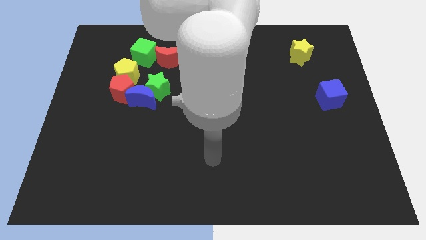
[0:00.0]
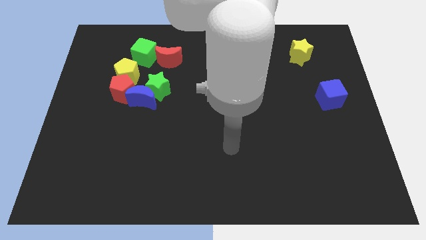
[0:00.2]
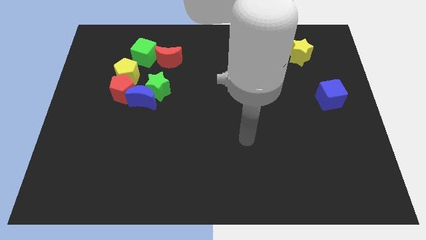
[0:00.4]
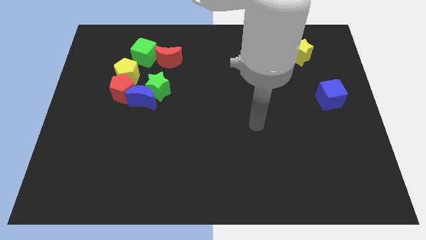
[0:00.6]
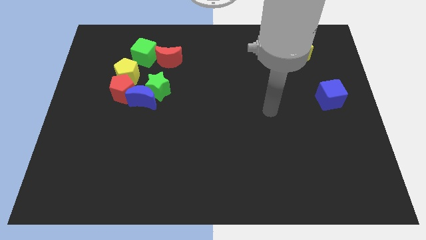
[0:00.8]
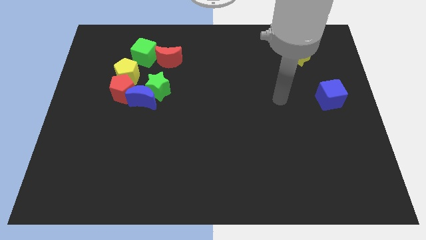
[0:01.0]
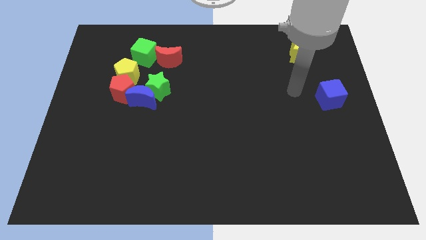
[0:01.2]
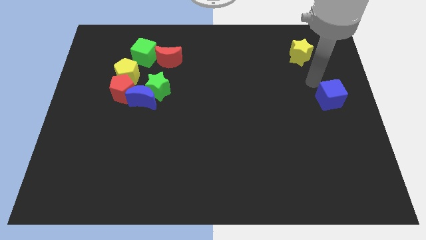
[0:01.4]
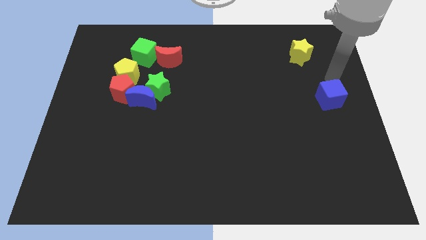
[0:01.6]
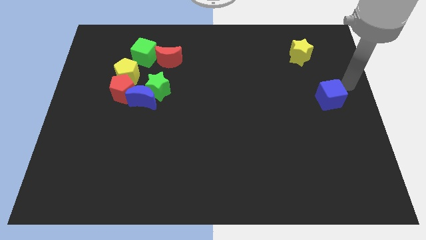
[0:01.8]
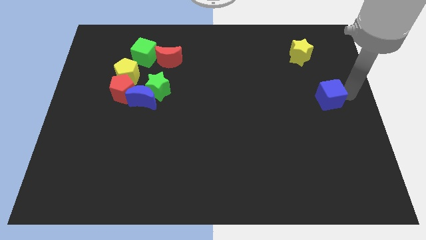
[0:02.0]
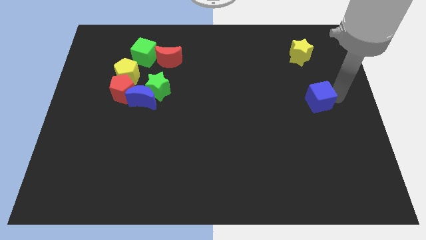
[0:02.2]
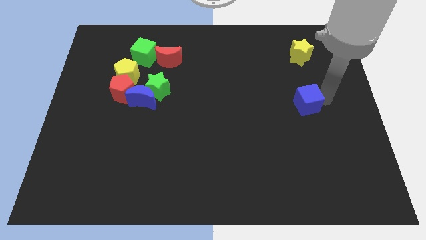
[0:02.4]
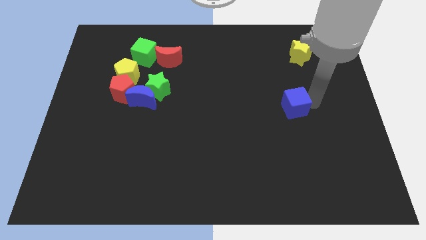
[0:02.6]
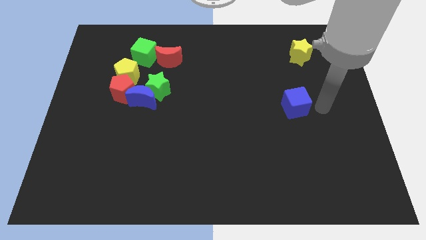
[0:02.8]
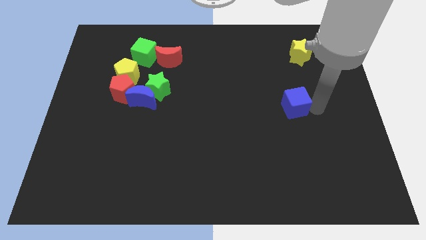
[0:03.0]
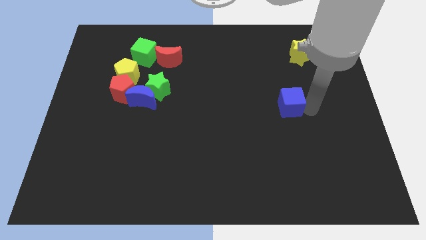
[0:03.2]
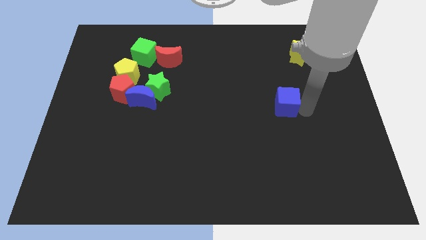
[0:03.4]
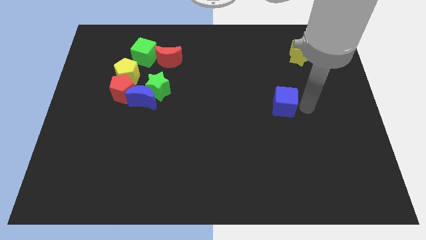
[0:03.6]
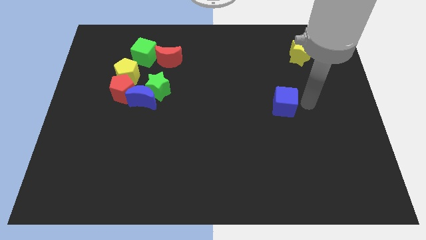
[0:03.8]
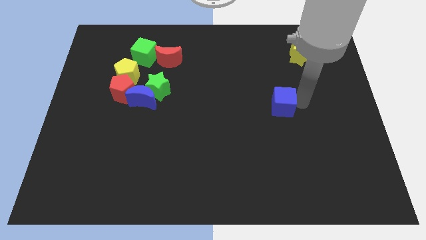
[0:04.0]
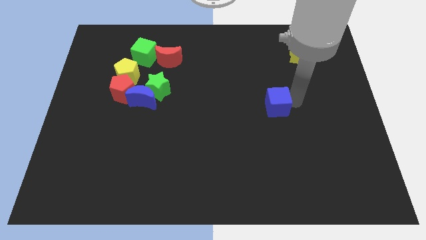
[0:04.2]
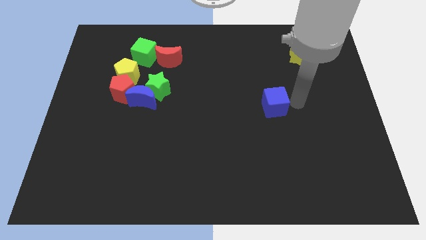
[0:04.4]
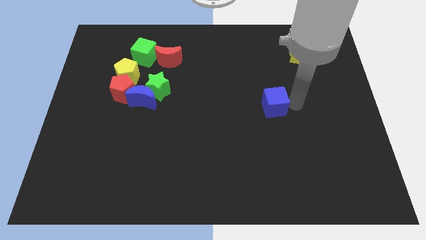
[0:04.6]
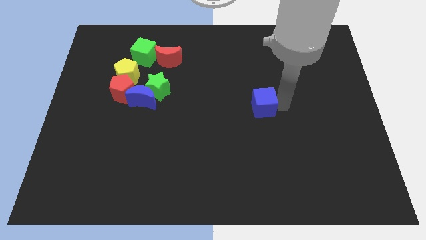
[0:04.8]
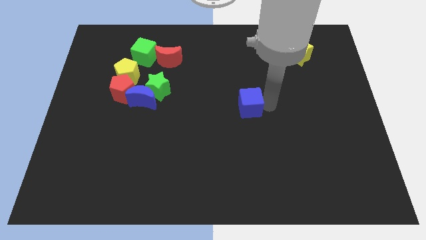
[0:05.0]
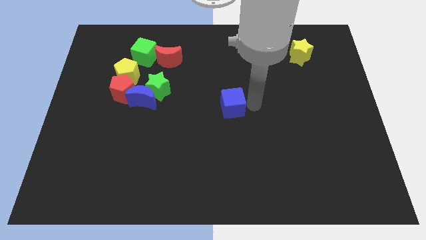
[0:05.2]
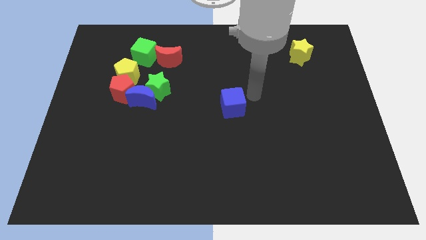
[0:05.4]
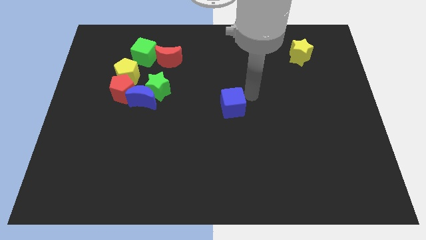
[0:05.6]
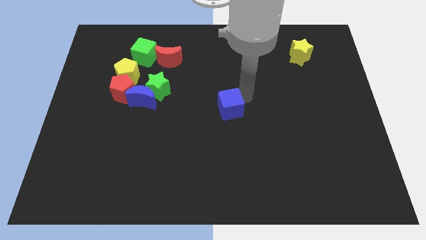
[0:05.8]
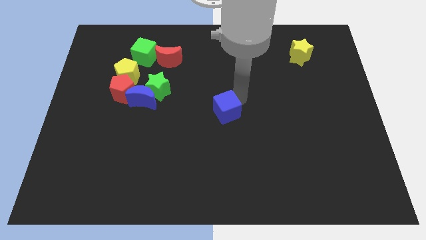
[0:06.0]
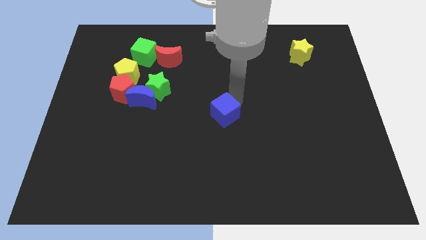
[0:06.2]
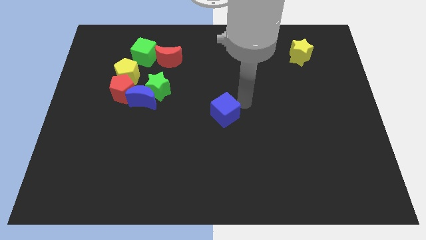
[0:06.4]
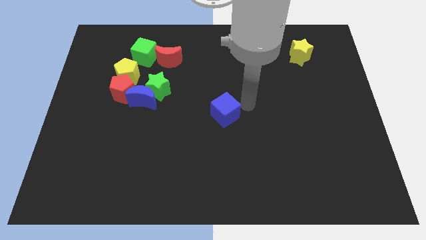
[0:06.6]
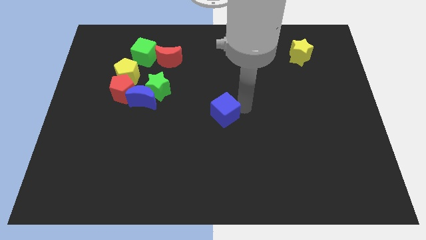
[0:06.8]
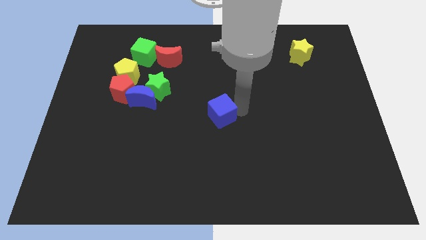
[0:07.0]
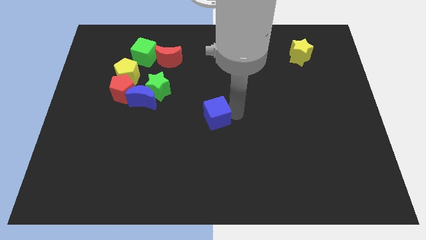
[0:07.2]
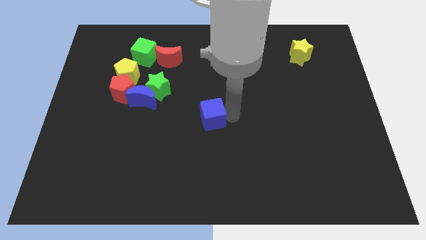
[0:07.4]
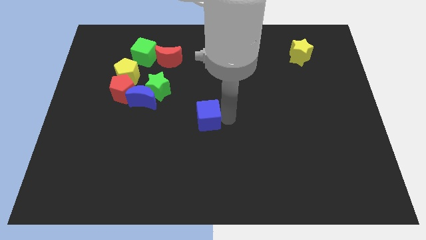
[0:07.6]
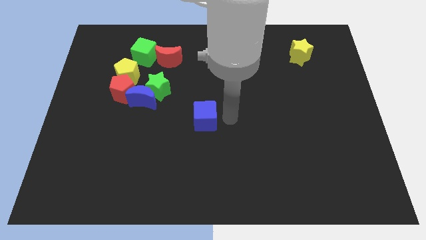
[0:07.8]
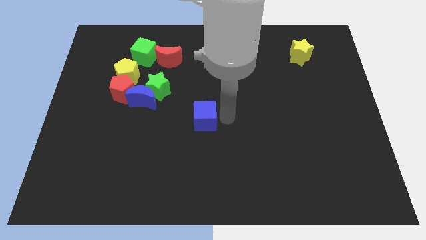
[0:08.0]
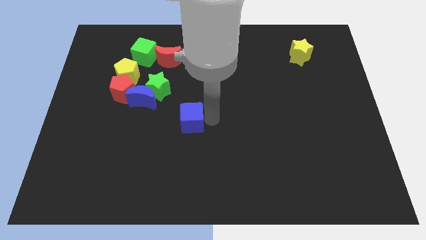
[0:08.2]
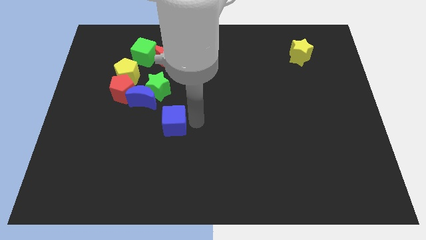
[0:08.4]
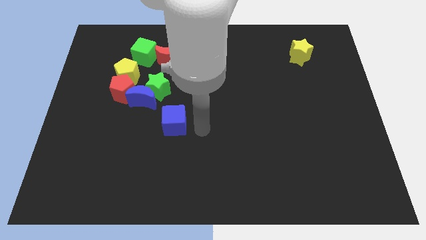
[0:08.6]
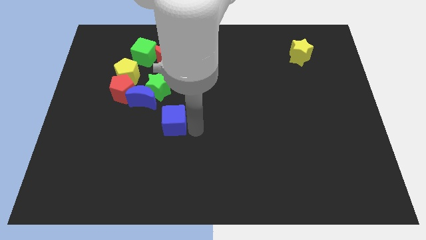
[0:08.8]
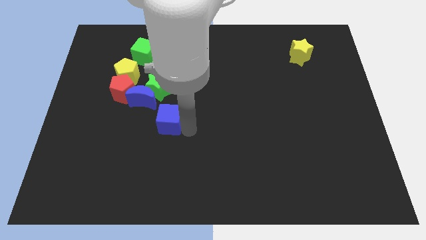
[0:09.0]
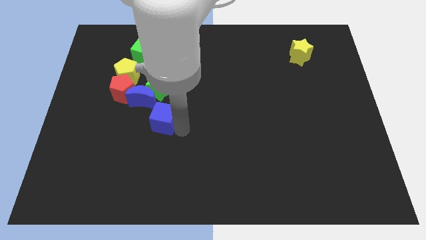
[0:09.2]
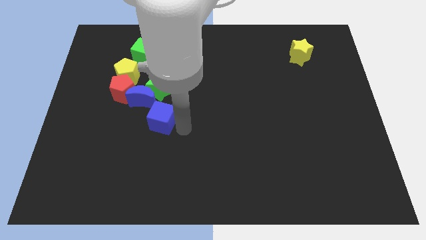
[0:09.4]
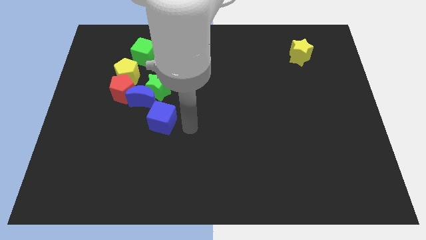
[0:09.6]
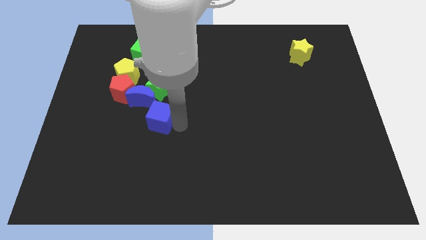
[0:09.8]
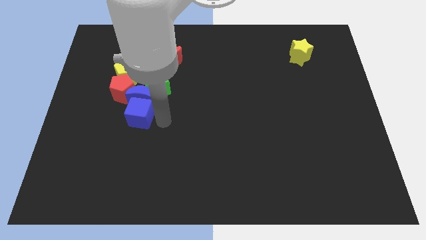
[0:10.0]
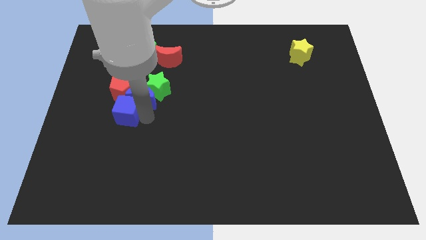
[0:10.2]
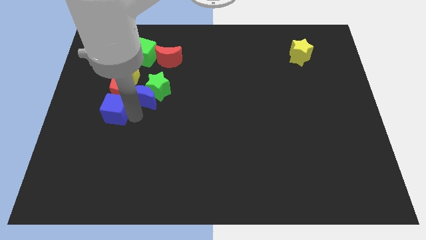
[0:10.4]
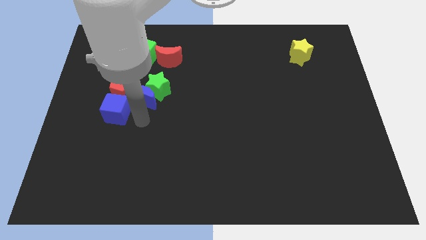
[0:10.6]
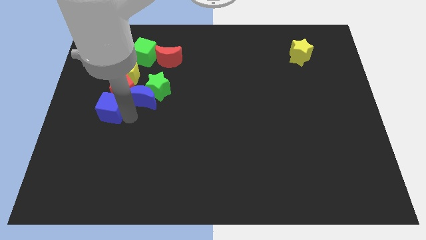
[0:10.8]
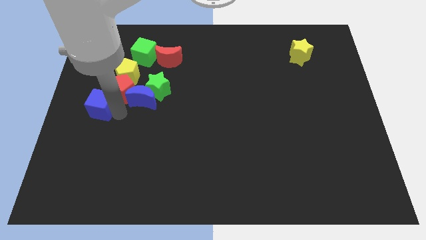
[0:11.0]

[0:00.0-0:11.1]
put the blue cube to the center left

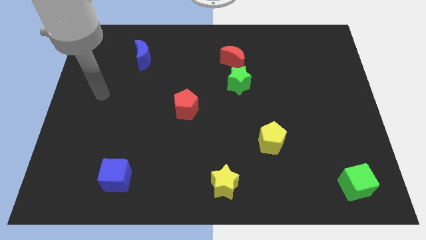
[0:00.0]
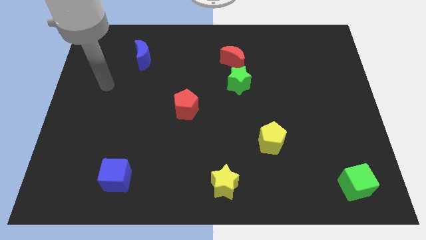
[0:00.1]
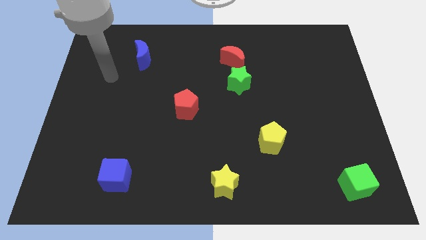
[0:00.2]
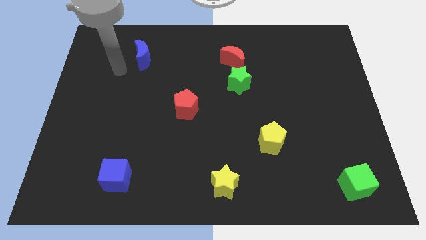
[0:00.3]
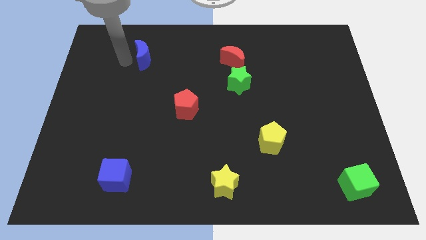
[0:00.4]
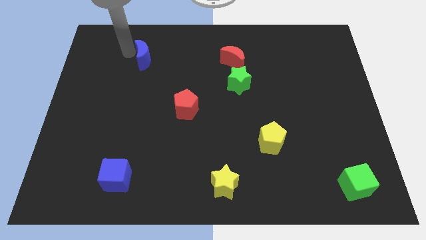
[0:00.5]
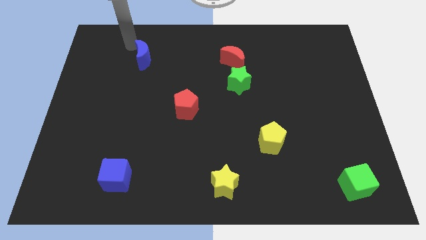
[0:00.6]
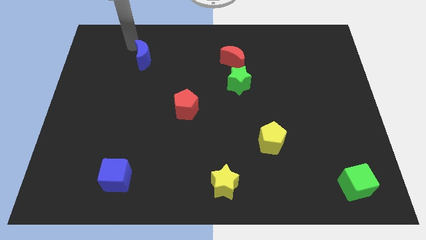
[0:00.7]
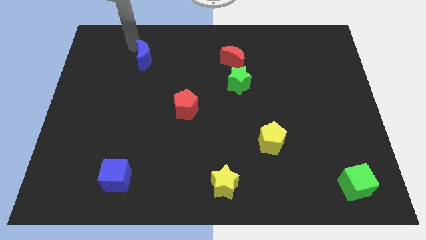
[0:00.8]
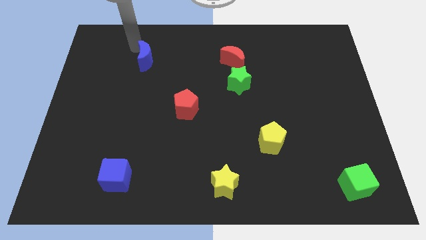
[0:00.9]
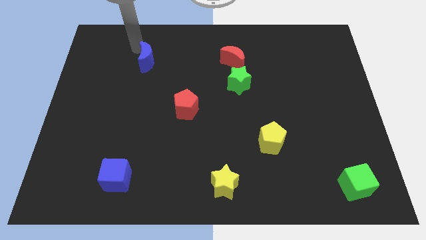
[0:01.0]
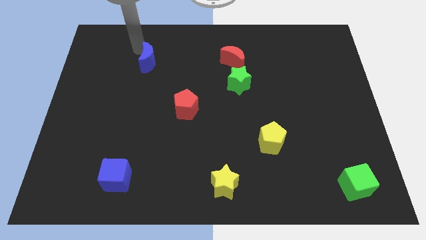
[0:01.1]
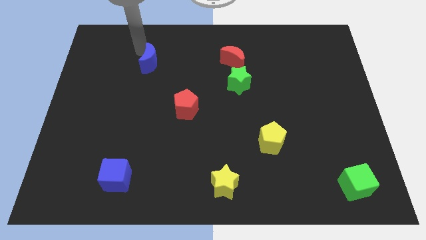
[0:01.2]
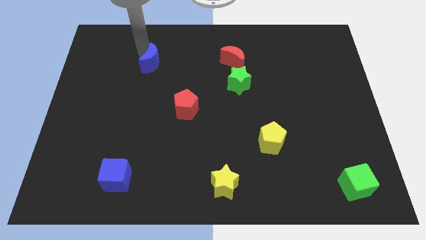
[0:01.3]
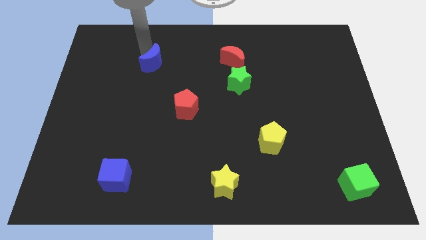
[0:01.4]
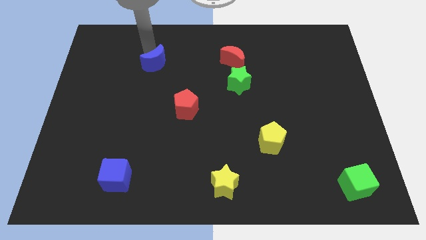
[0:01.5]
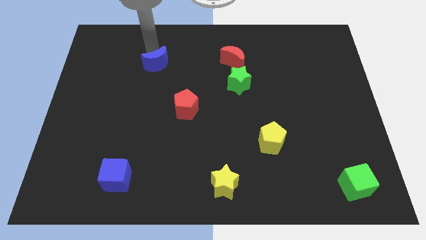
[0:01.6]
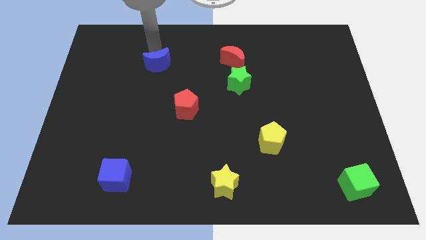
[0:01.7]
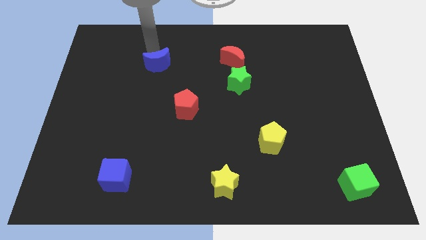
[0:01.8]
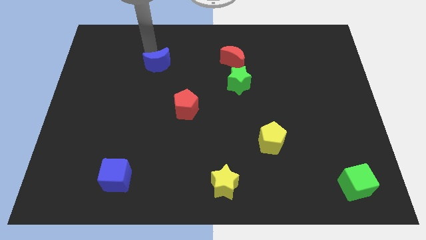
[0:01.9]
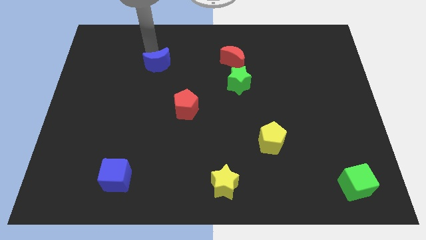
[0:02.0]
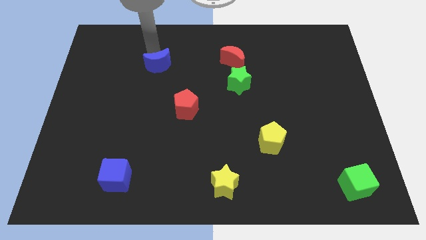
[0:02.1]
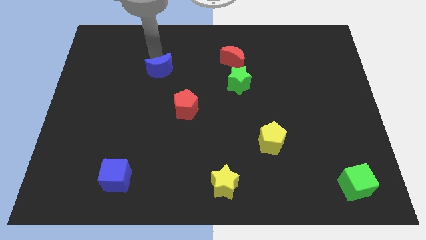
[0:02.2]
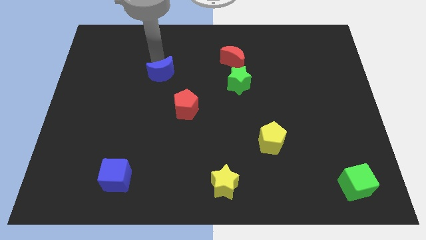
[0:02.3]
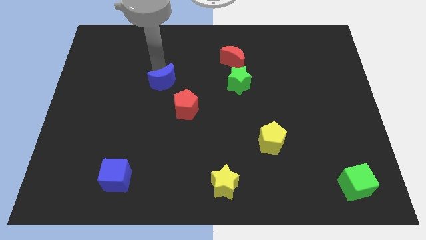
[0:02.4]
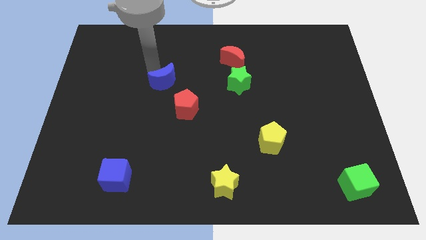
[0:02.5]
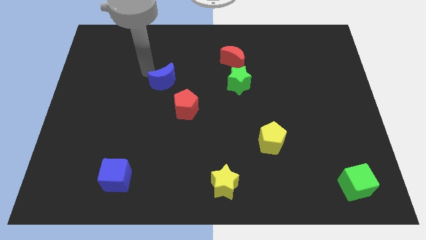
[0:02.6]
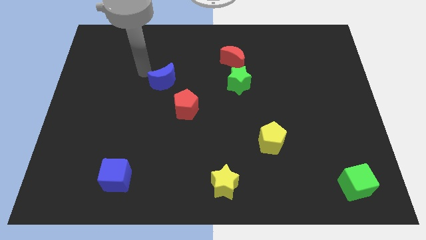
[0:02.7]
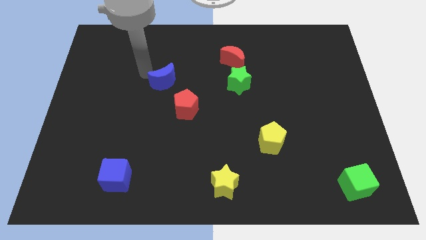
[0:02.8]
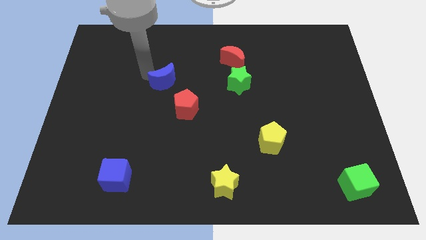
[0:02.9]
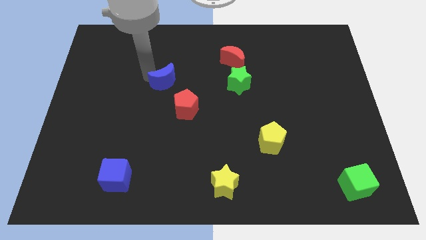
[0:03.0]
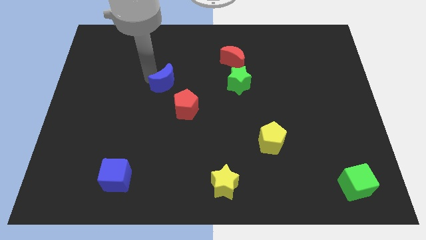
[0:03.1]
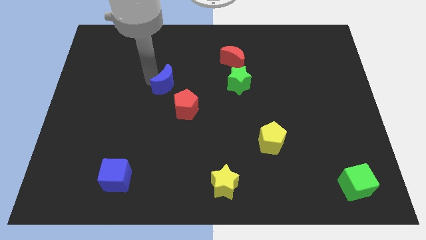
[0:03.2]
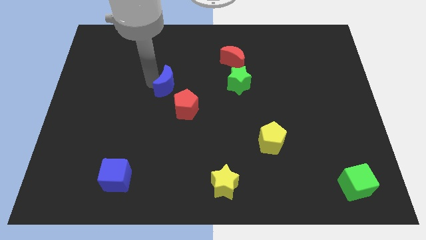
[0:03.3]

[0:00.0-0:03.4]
push the blue moon to the middle
